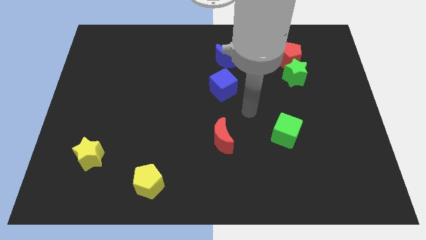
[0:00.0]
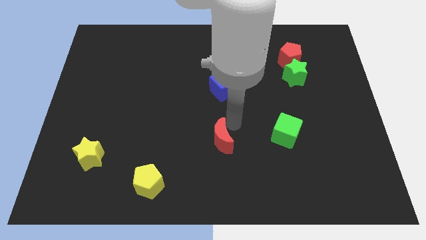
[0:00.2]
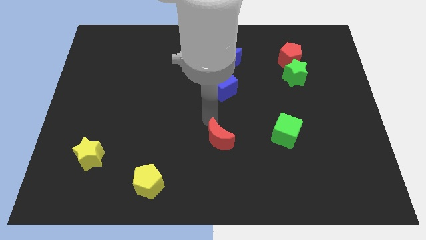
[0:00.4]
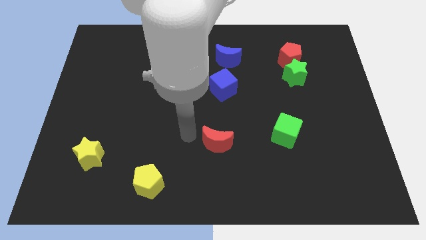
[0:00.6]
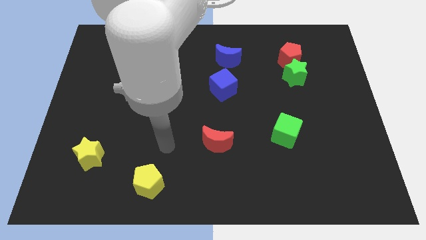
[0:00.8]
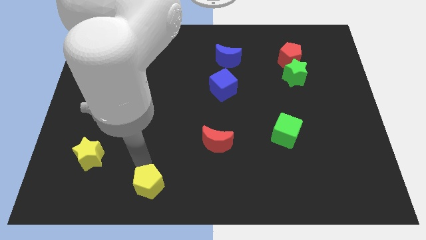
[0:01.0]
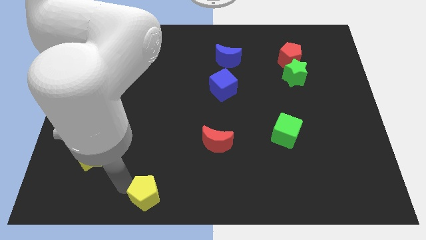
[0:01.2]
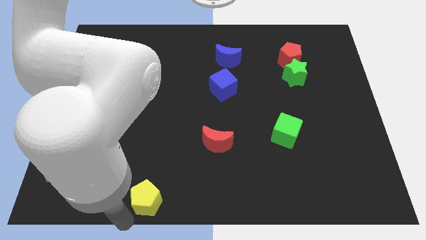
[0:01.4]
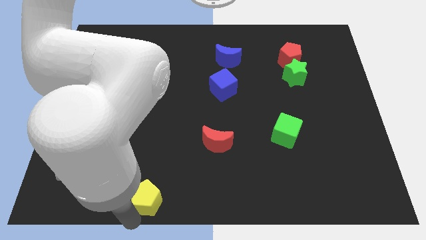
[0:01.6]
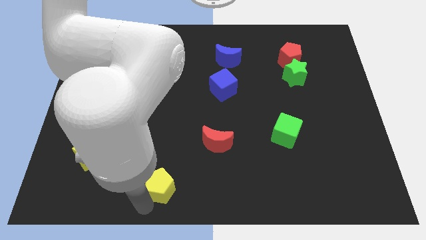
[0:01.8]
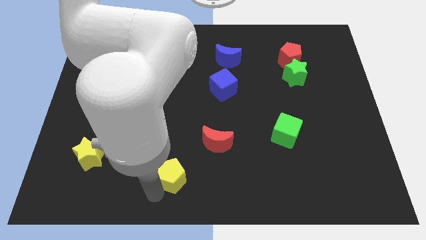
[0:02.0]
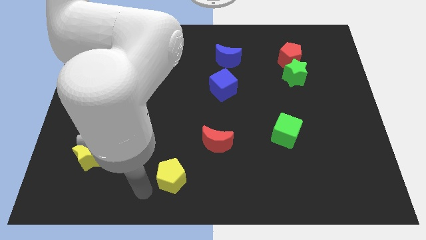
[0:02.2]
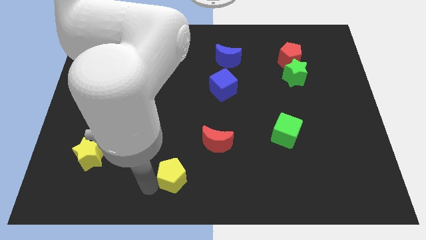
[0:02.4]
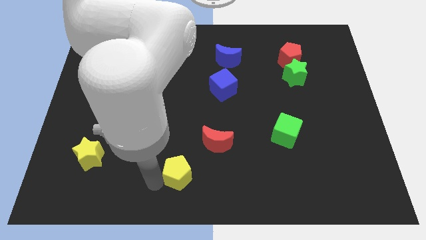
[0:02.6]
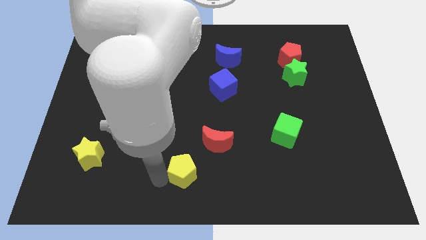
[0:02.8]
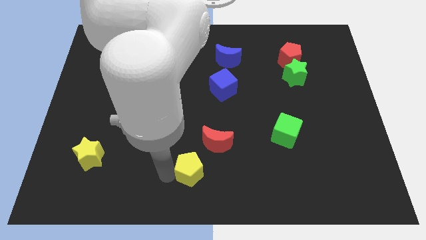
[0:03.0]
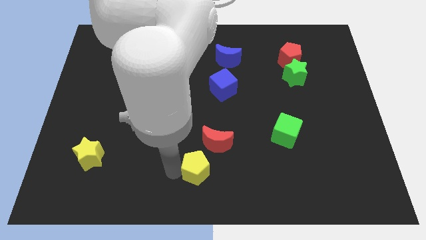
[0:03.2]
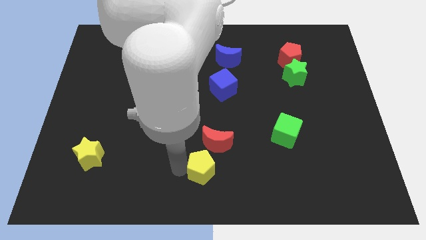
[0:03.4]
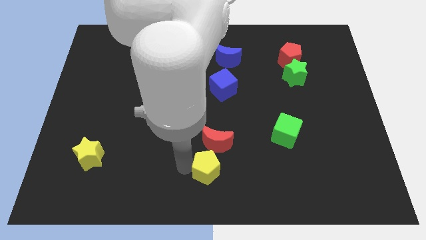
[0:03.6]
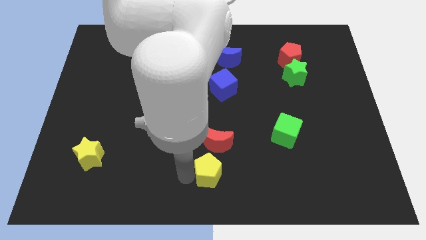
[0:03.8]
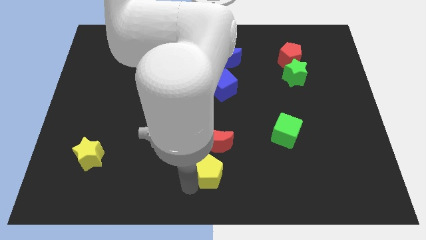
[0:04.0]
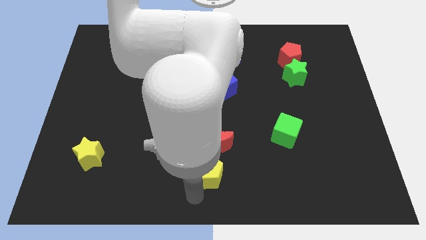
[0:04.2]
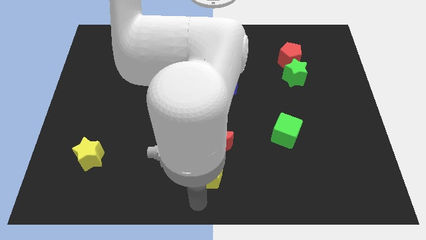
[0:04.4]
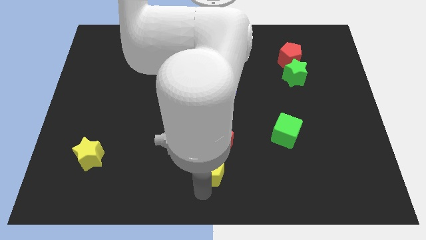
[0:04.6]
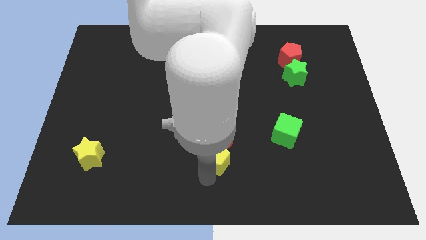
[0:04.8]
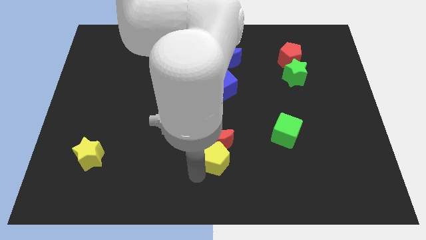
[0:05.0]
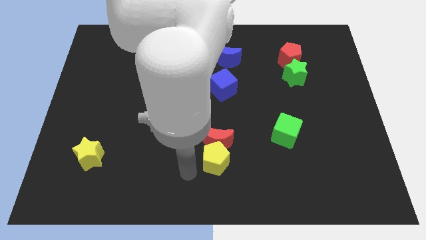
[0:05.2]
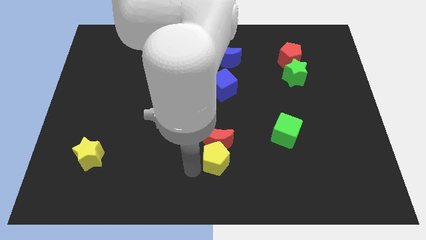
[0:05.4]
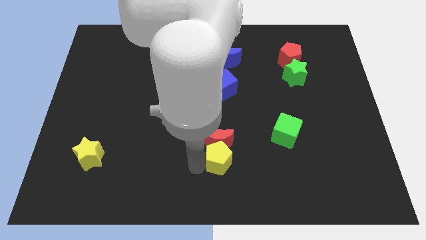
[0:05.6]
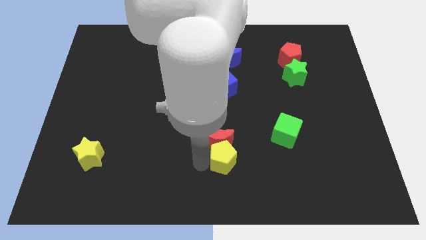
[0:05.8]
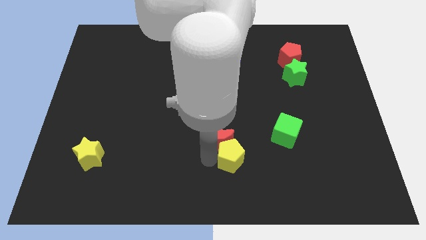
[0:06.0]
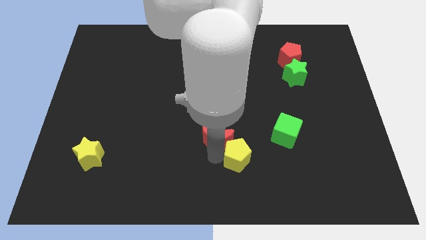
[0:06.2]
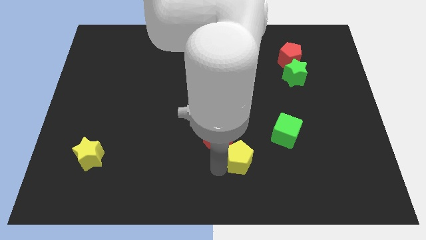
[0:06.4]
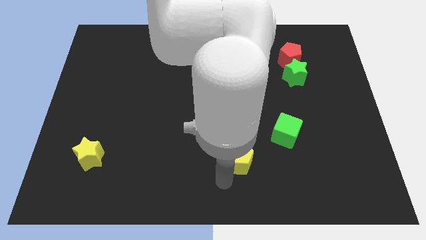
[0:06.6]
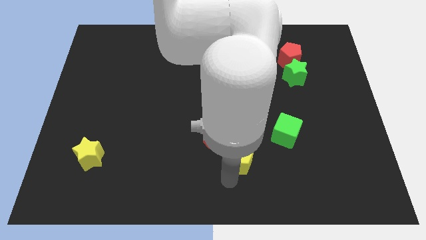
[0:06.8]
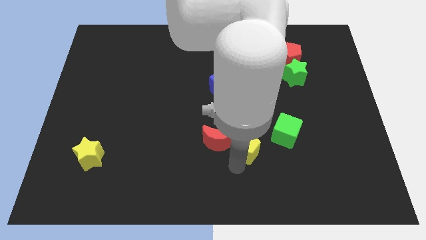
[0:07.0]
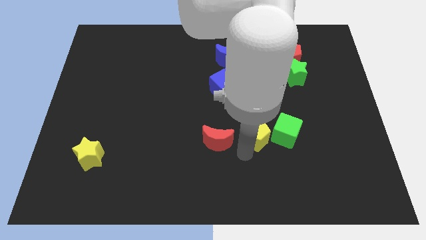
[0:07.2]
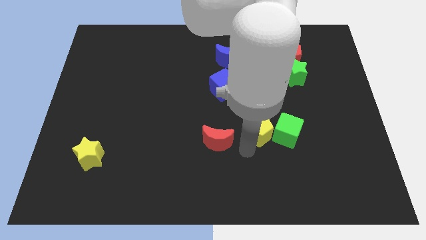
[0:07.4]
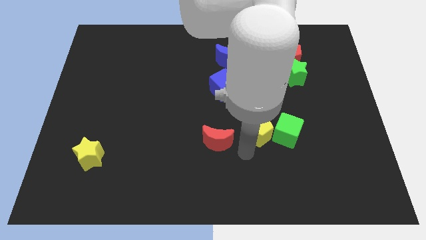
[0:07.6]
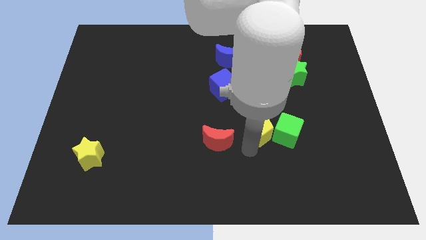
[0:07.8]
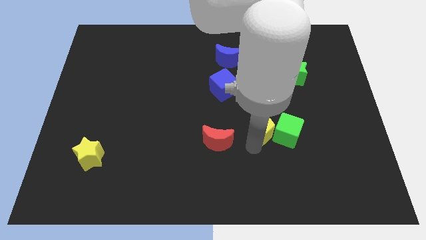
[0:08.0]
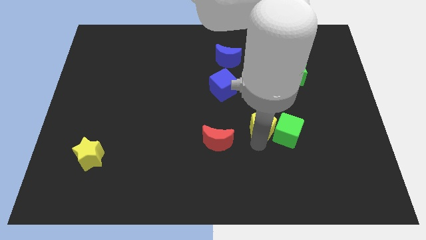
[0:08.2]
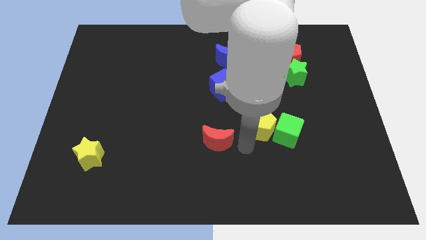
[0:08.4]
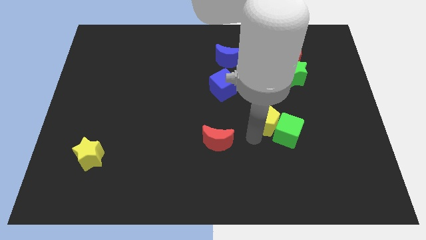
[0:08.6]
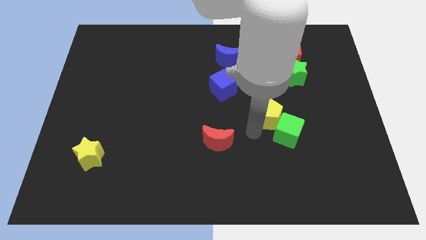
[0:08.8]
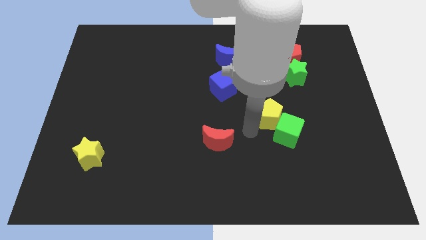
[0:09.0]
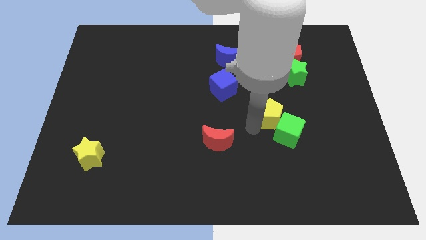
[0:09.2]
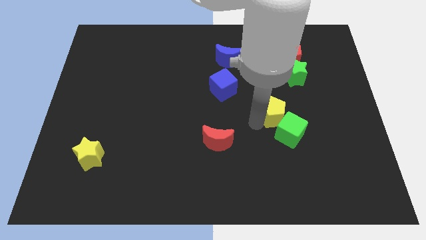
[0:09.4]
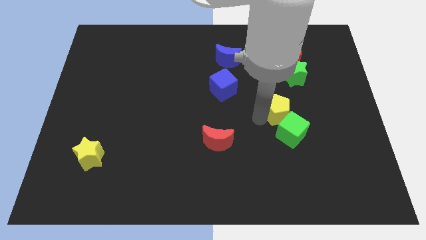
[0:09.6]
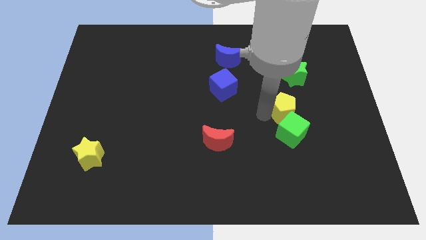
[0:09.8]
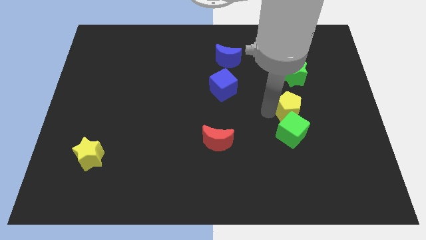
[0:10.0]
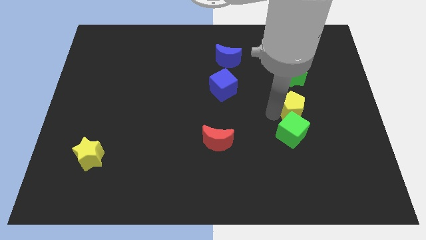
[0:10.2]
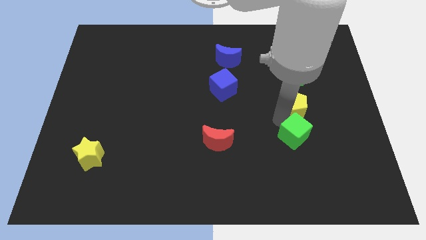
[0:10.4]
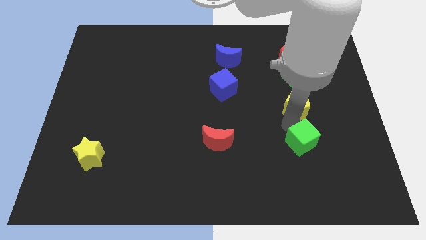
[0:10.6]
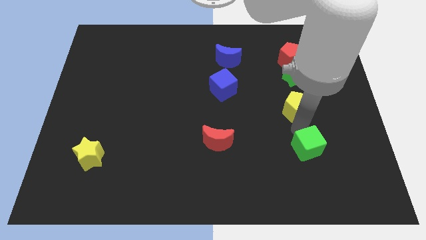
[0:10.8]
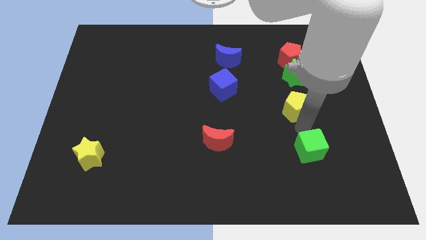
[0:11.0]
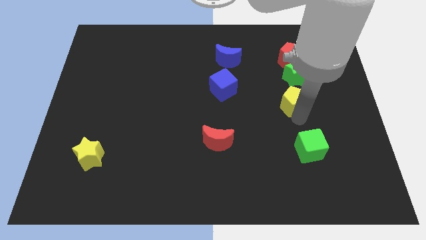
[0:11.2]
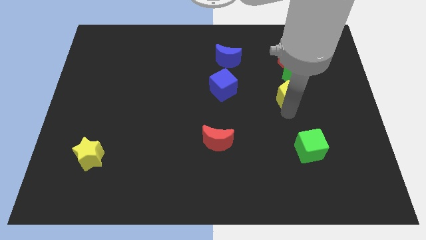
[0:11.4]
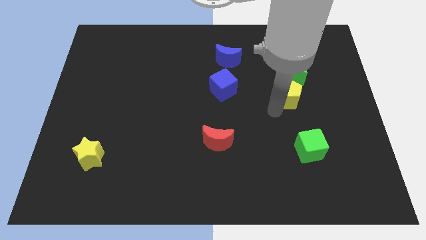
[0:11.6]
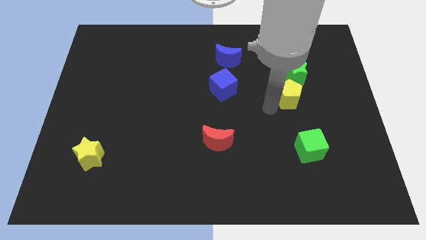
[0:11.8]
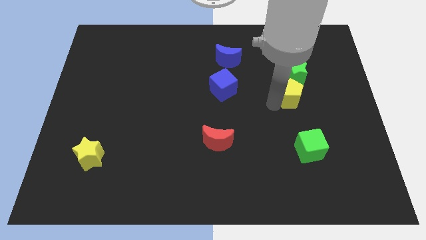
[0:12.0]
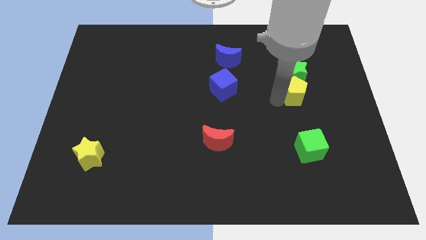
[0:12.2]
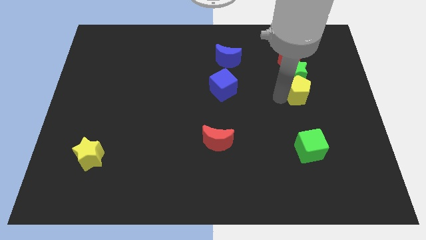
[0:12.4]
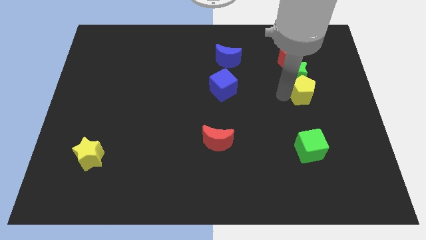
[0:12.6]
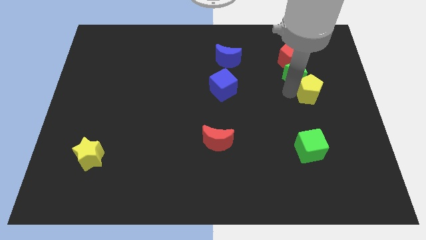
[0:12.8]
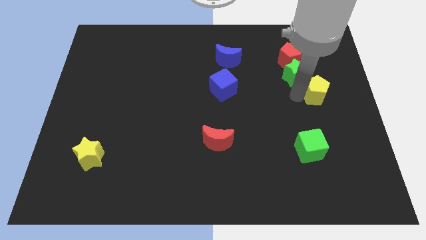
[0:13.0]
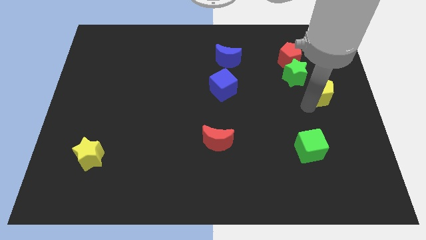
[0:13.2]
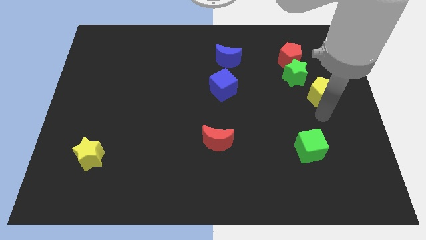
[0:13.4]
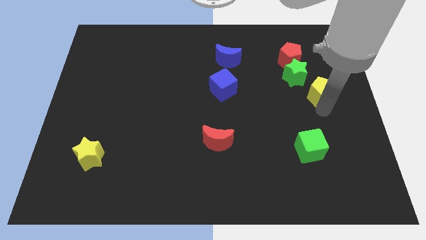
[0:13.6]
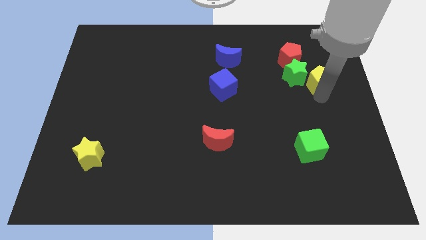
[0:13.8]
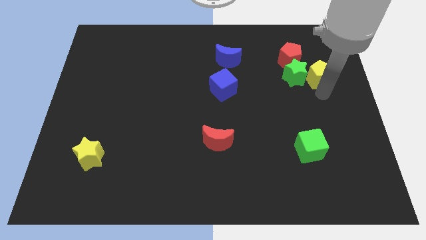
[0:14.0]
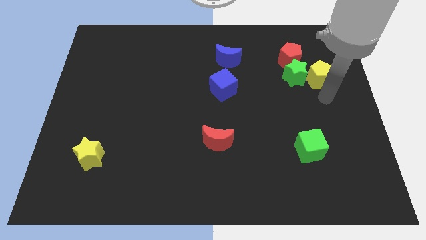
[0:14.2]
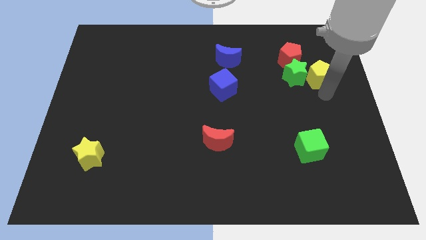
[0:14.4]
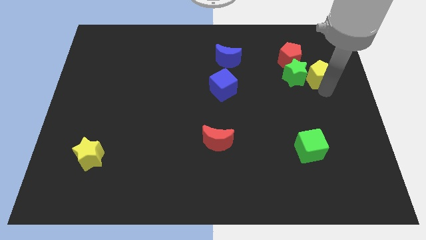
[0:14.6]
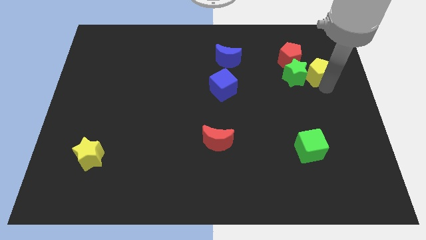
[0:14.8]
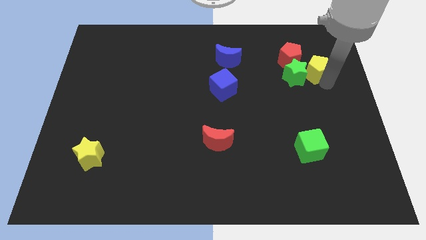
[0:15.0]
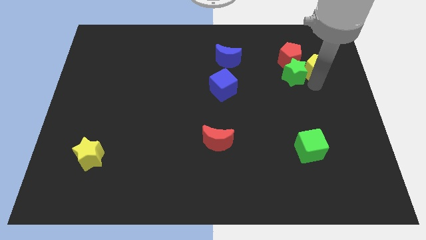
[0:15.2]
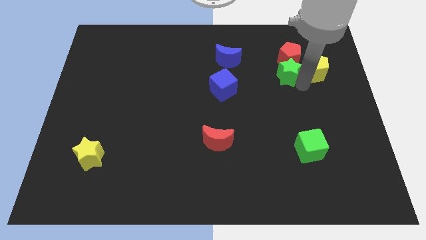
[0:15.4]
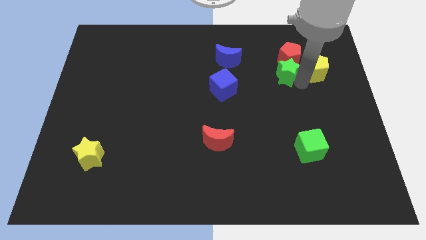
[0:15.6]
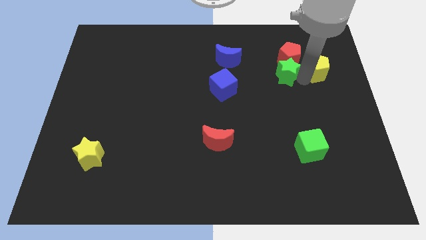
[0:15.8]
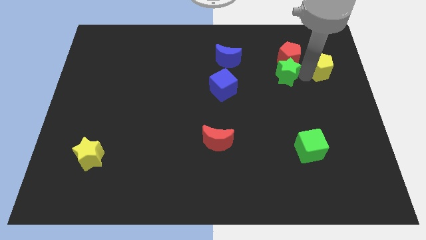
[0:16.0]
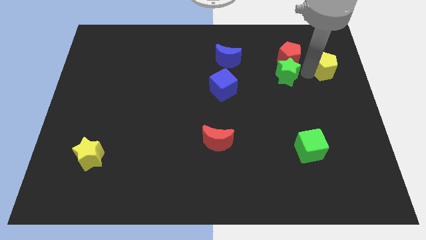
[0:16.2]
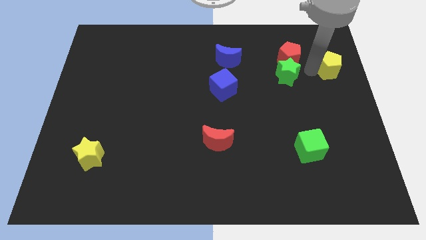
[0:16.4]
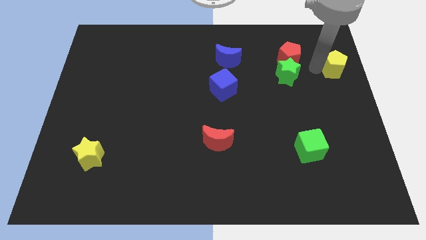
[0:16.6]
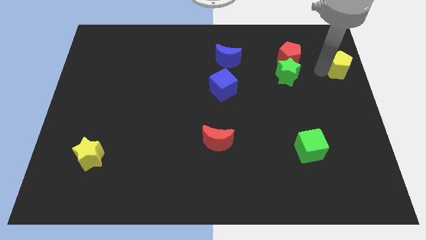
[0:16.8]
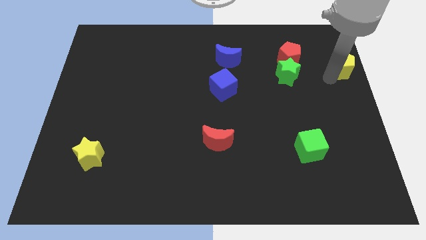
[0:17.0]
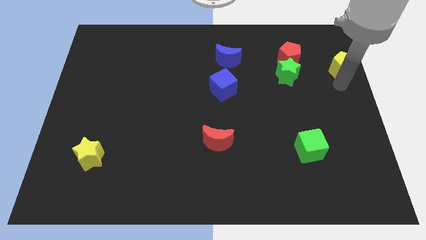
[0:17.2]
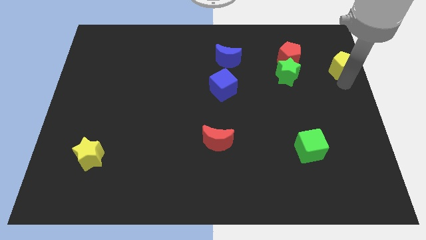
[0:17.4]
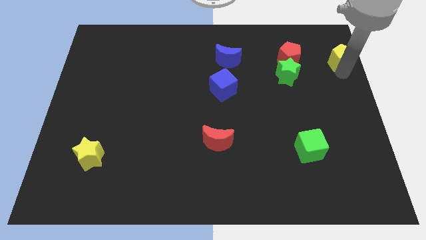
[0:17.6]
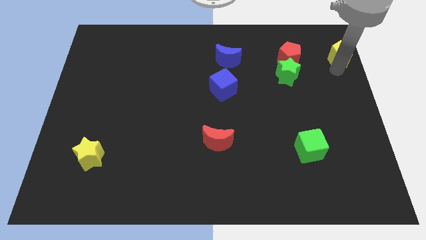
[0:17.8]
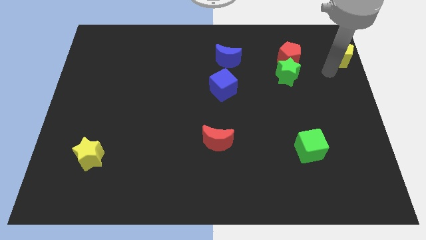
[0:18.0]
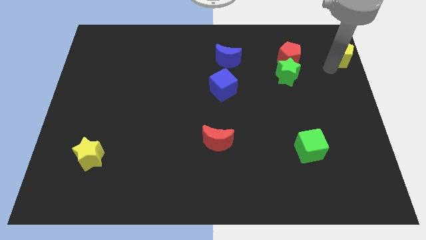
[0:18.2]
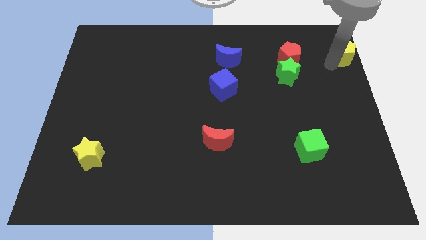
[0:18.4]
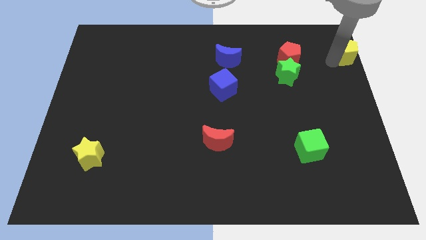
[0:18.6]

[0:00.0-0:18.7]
push the yellow pentagon to the upper right corner
